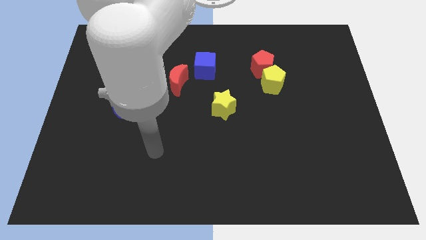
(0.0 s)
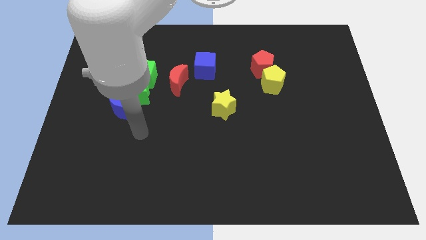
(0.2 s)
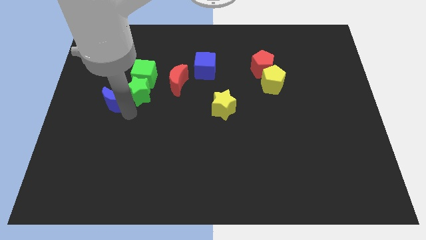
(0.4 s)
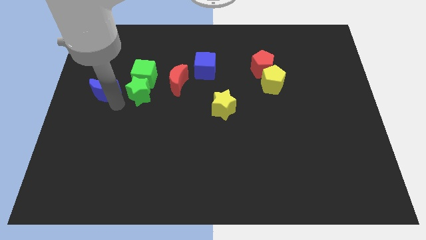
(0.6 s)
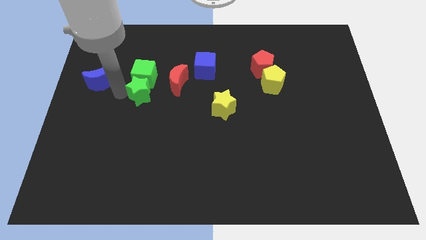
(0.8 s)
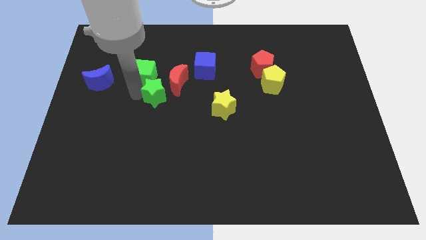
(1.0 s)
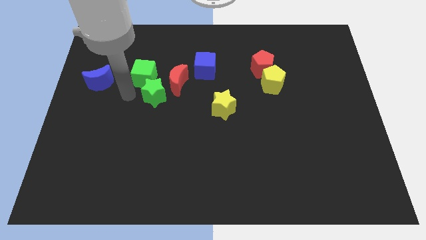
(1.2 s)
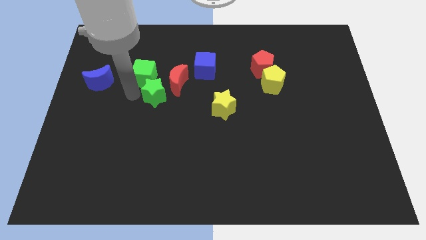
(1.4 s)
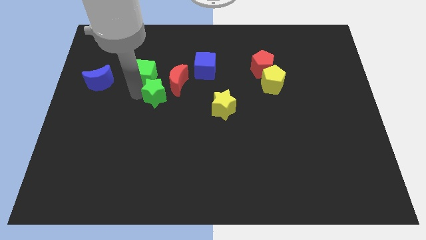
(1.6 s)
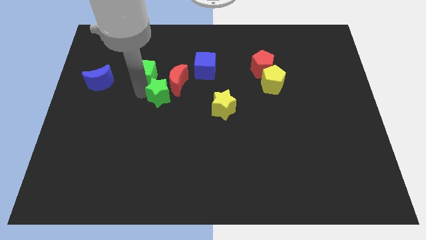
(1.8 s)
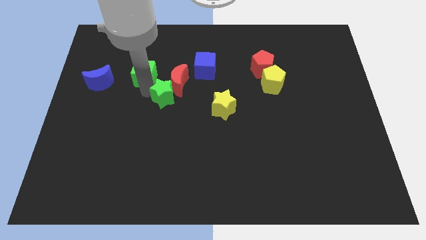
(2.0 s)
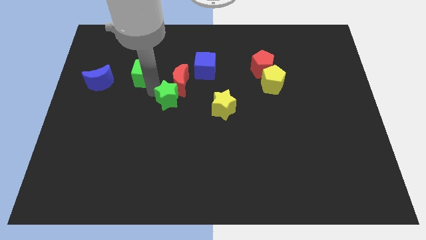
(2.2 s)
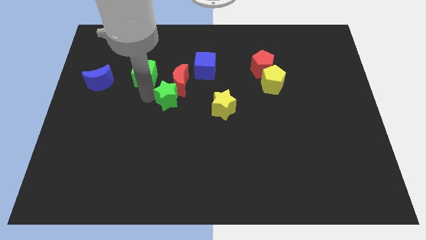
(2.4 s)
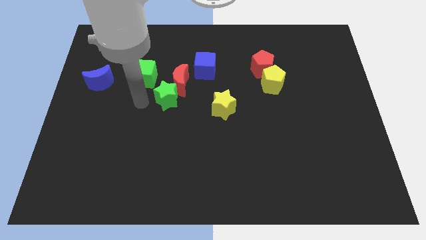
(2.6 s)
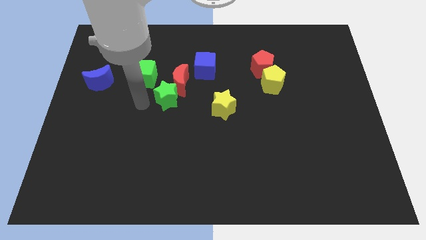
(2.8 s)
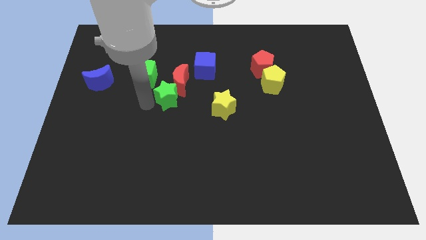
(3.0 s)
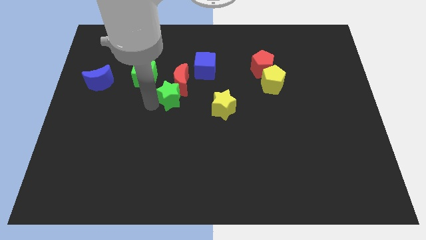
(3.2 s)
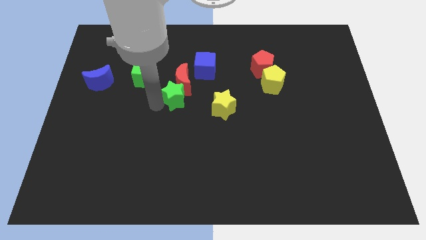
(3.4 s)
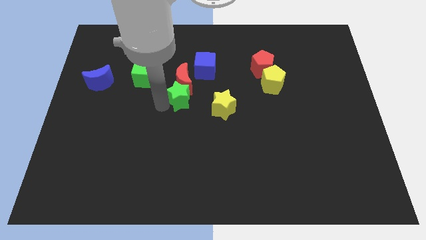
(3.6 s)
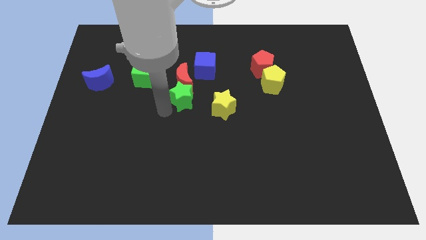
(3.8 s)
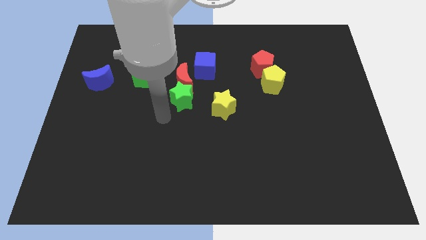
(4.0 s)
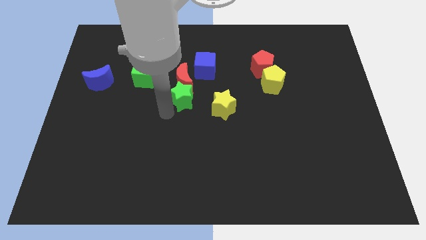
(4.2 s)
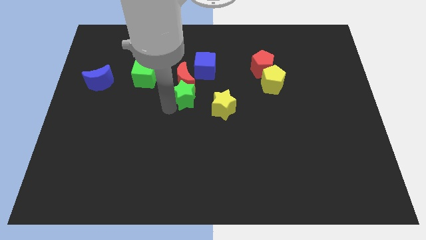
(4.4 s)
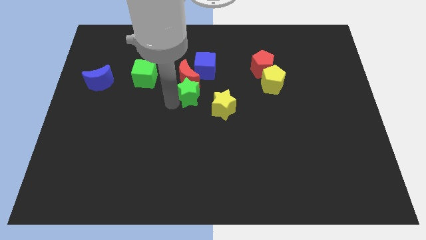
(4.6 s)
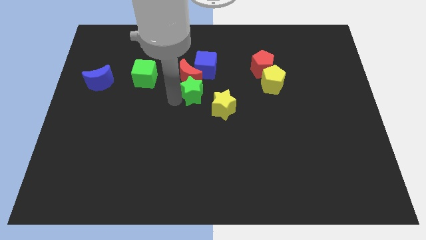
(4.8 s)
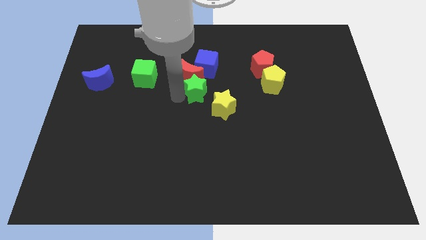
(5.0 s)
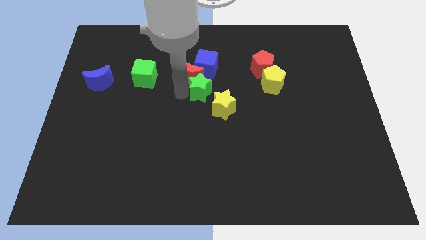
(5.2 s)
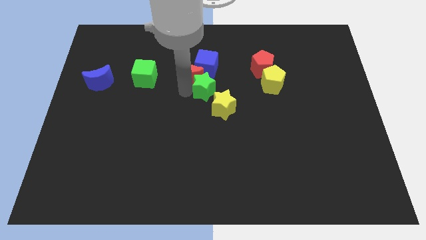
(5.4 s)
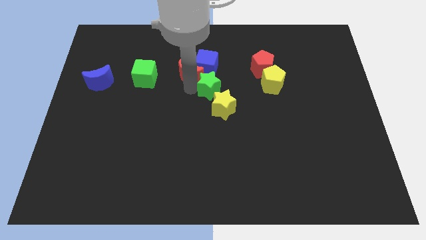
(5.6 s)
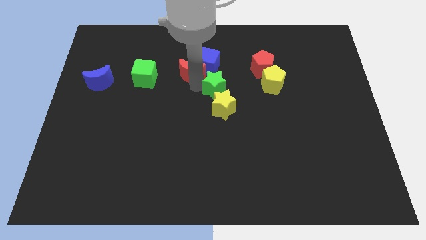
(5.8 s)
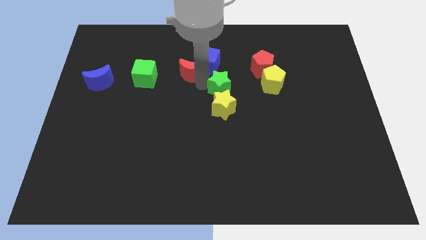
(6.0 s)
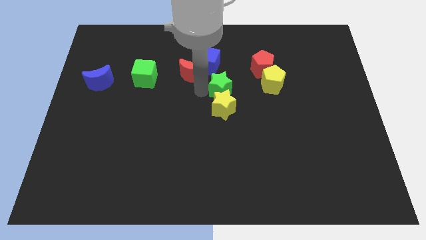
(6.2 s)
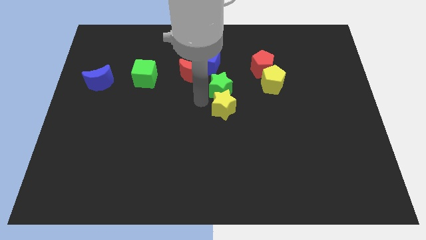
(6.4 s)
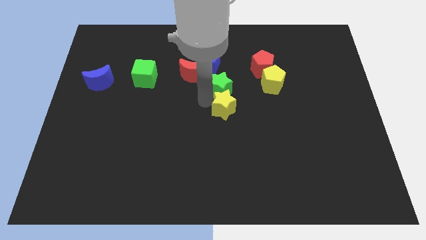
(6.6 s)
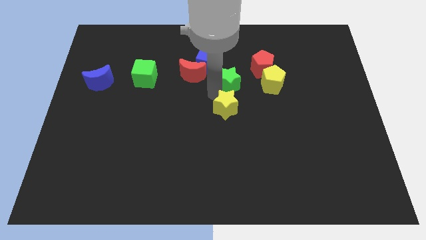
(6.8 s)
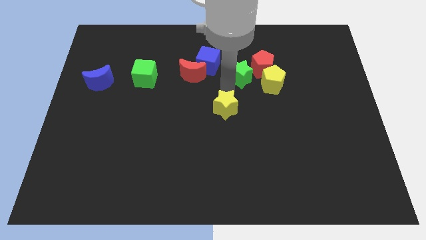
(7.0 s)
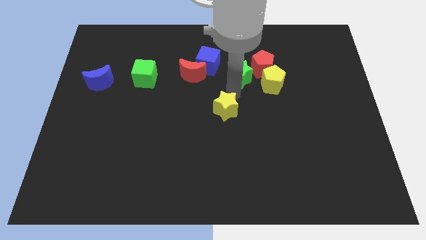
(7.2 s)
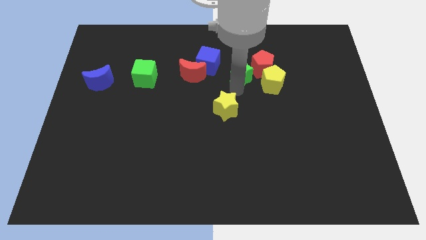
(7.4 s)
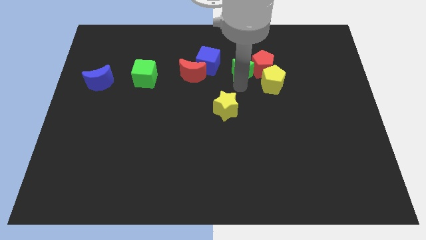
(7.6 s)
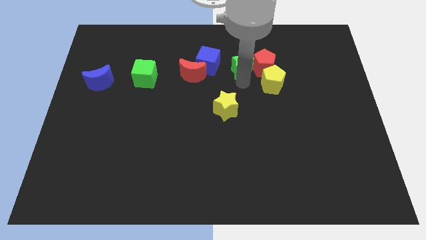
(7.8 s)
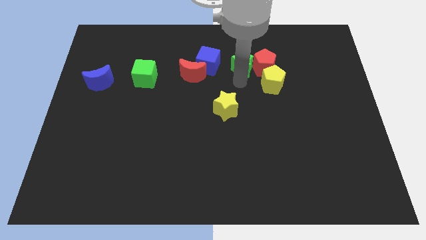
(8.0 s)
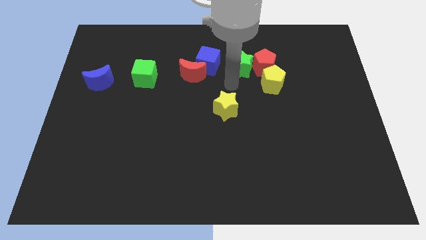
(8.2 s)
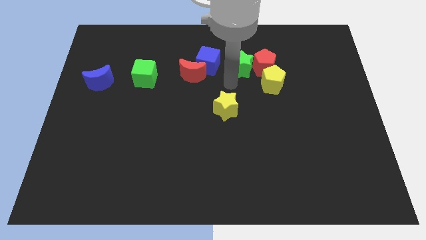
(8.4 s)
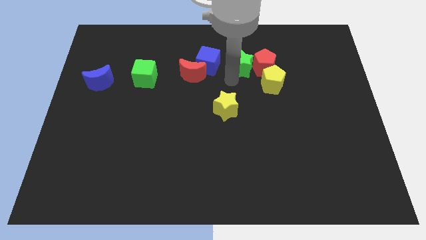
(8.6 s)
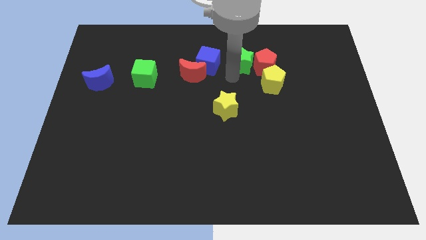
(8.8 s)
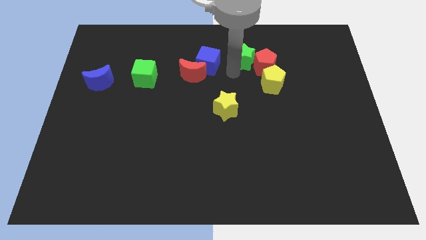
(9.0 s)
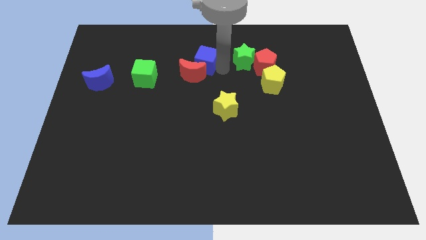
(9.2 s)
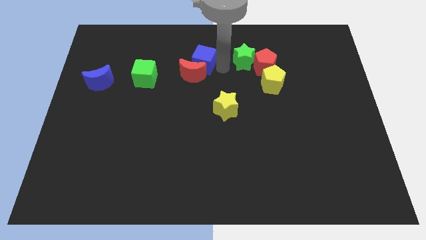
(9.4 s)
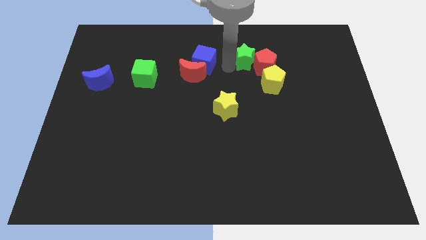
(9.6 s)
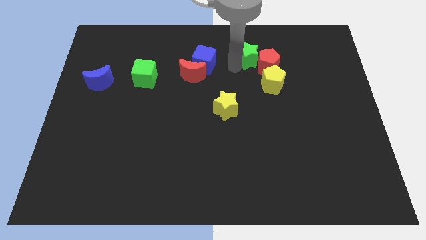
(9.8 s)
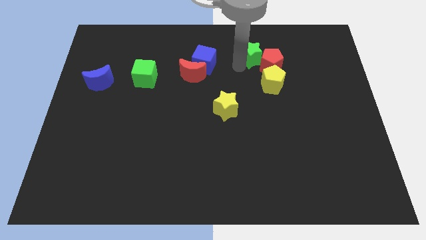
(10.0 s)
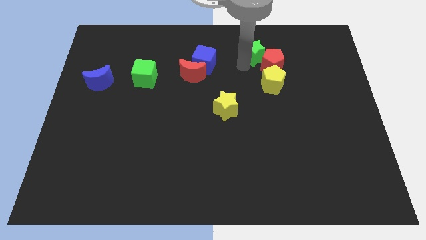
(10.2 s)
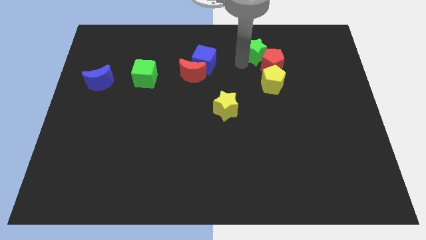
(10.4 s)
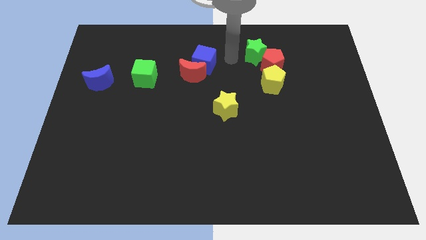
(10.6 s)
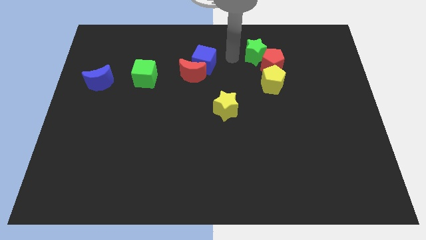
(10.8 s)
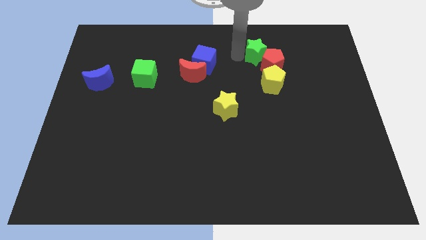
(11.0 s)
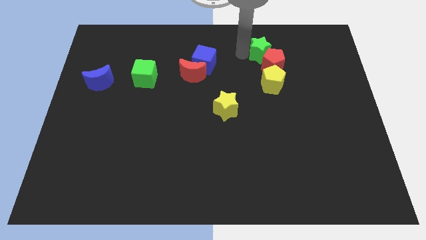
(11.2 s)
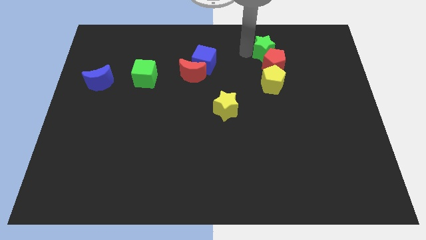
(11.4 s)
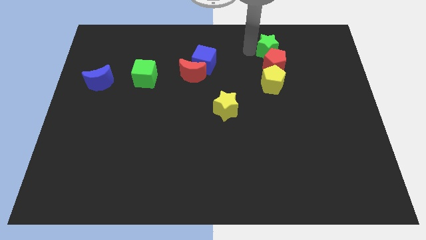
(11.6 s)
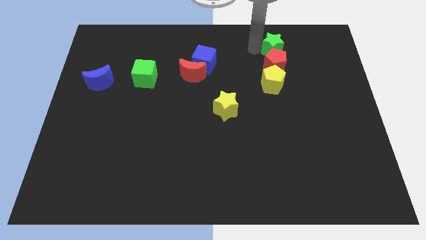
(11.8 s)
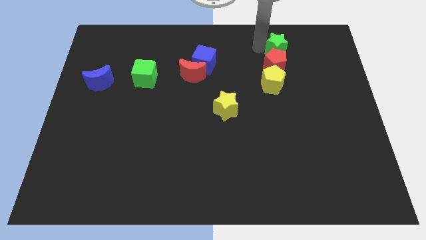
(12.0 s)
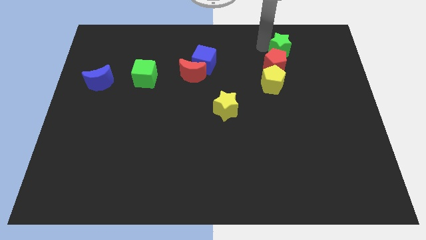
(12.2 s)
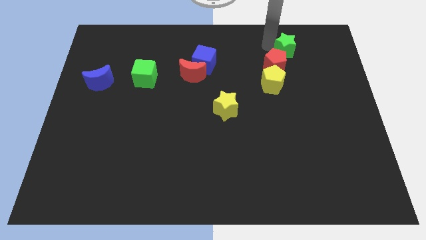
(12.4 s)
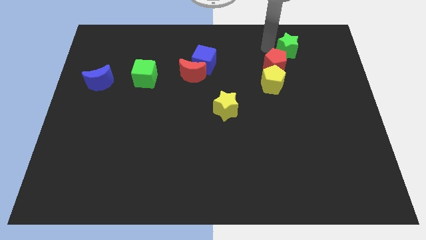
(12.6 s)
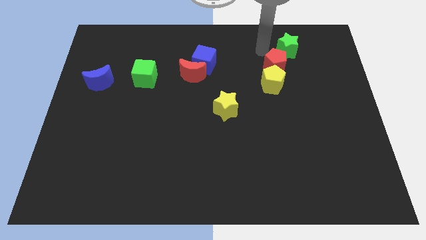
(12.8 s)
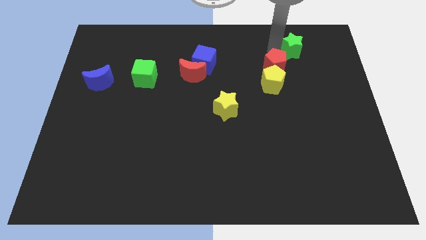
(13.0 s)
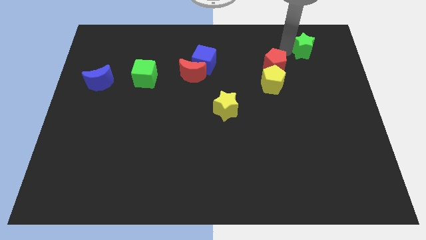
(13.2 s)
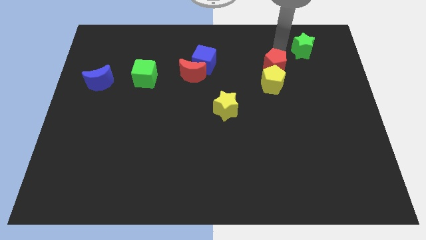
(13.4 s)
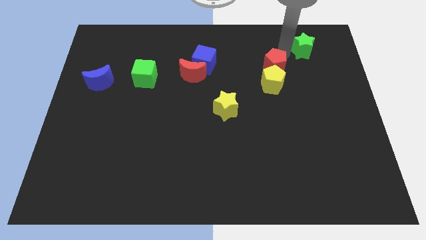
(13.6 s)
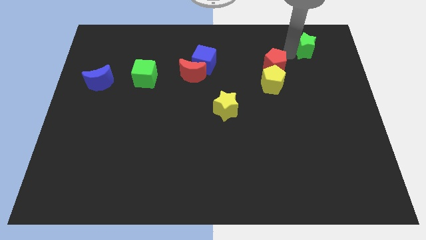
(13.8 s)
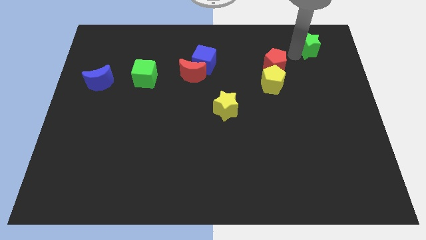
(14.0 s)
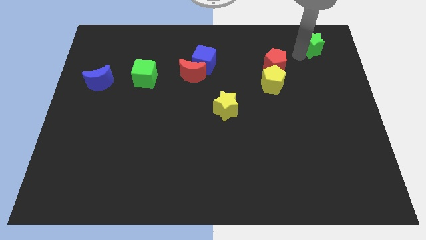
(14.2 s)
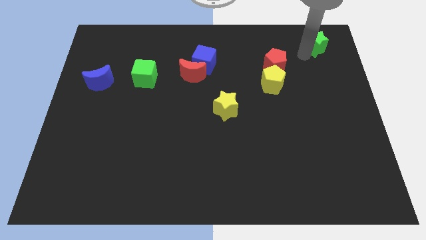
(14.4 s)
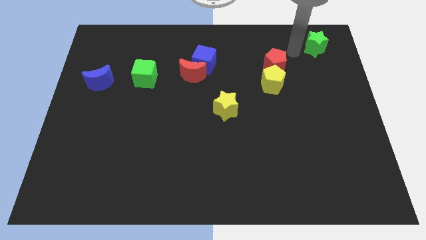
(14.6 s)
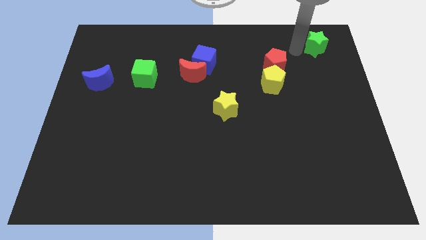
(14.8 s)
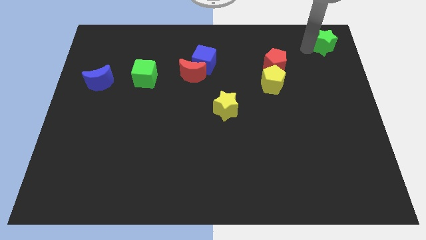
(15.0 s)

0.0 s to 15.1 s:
move the green star to the top right
